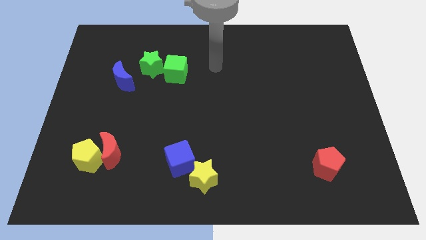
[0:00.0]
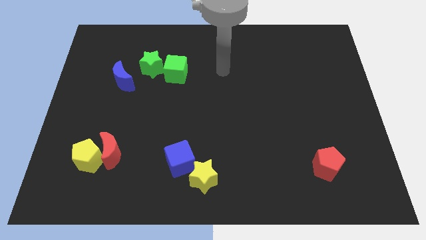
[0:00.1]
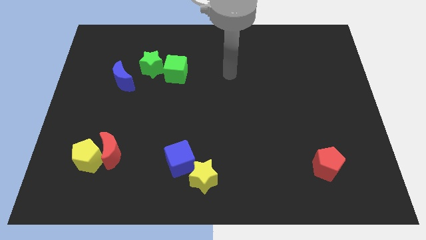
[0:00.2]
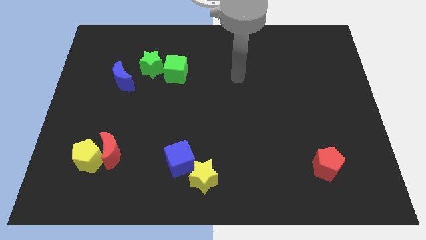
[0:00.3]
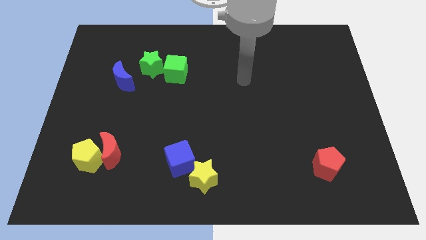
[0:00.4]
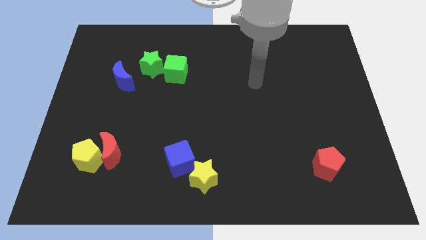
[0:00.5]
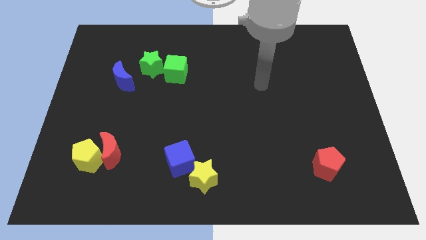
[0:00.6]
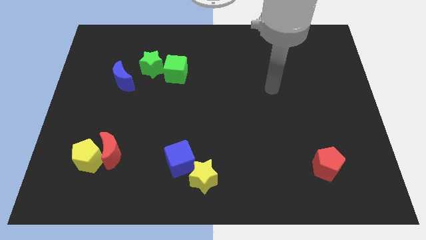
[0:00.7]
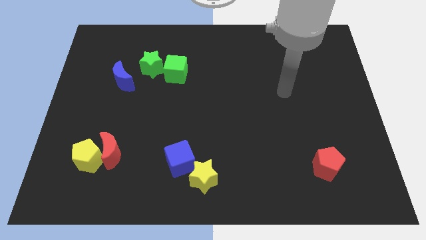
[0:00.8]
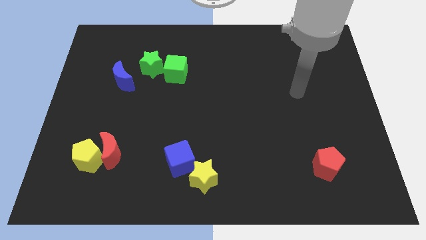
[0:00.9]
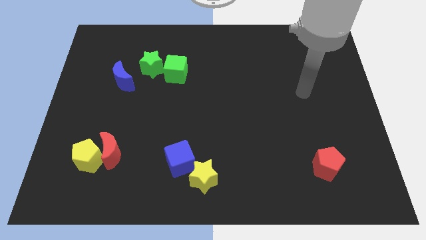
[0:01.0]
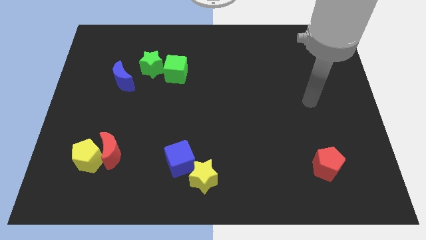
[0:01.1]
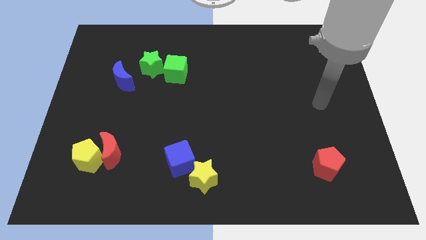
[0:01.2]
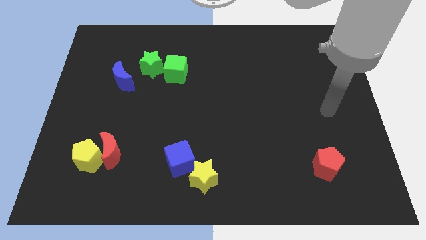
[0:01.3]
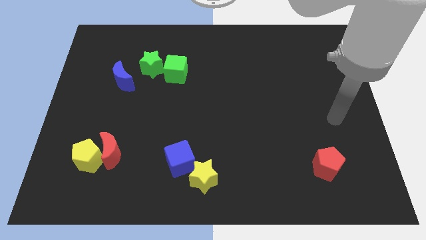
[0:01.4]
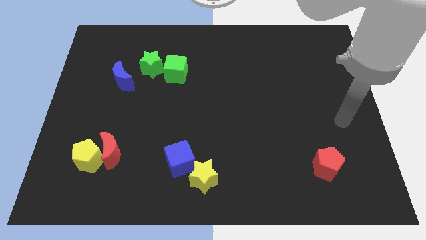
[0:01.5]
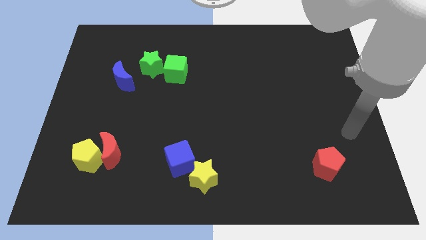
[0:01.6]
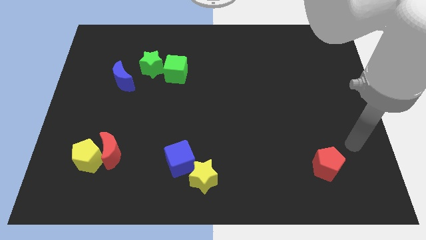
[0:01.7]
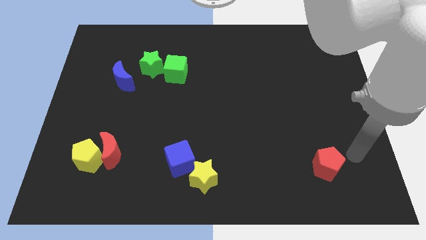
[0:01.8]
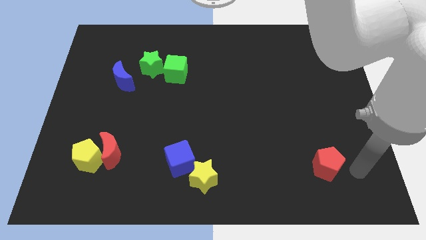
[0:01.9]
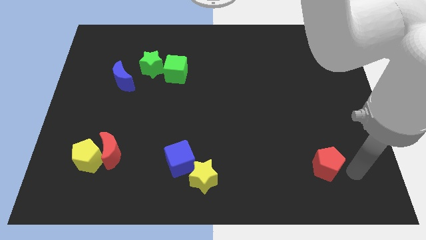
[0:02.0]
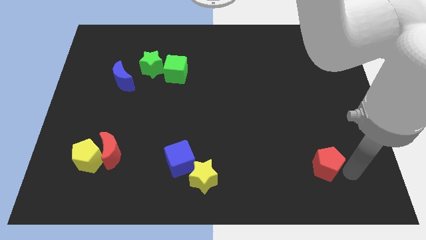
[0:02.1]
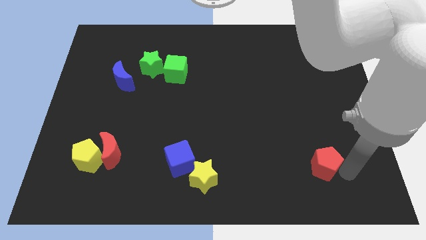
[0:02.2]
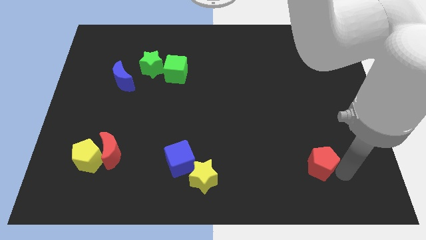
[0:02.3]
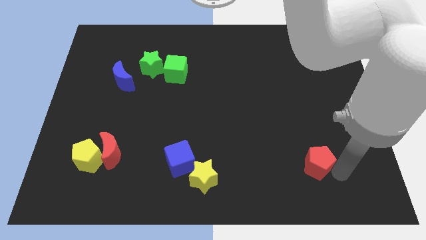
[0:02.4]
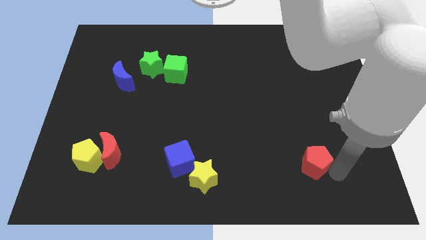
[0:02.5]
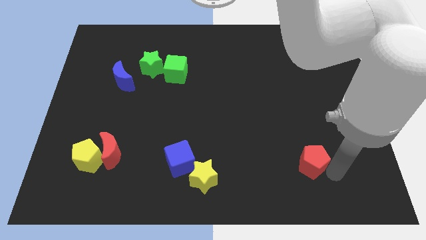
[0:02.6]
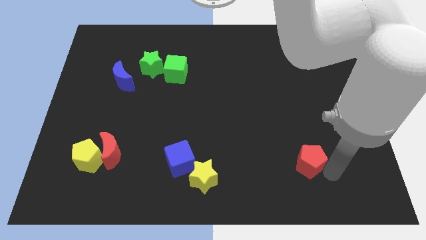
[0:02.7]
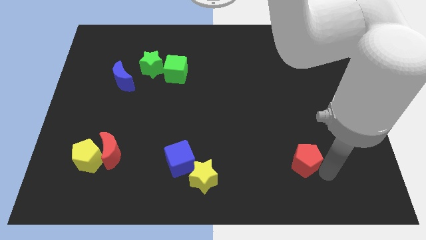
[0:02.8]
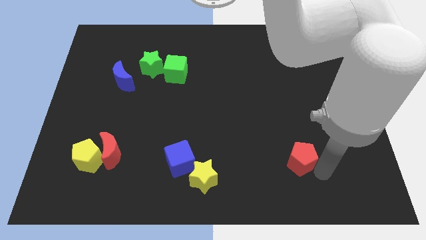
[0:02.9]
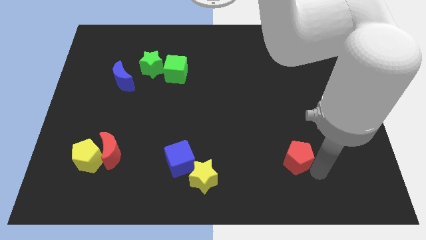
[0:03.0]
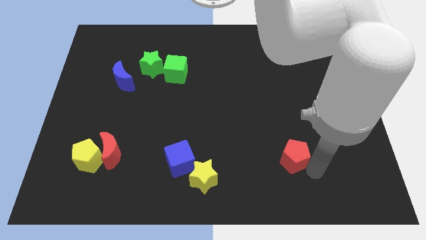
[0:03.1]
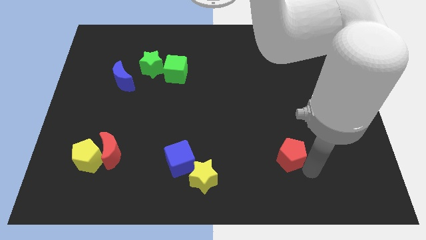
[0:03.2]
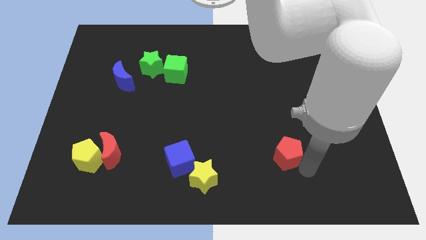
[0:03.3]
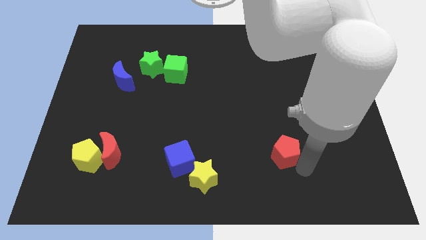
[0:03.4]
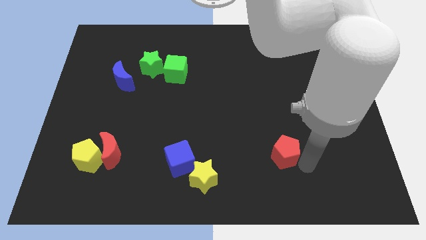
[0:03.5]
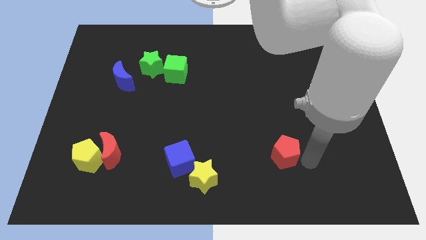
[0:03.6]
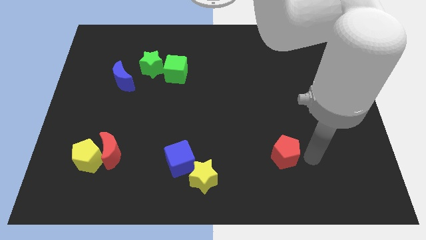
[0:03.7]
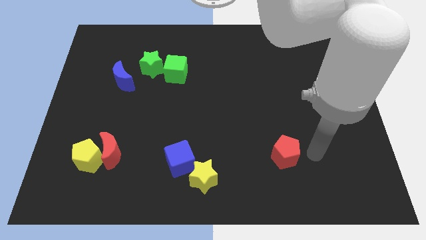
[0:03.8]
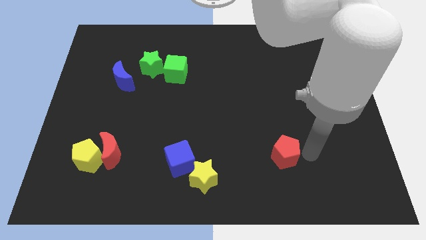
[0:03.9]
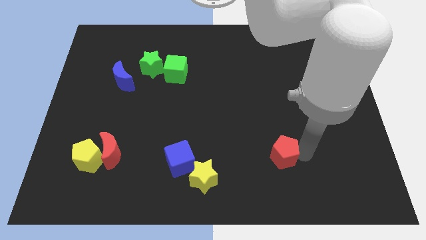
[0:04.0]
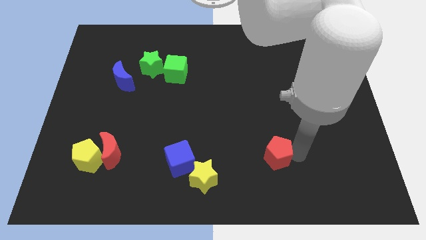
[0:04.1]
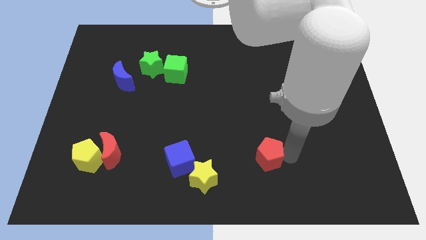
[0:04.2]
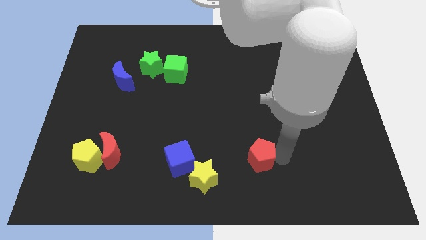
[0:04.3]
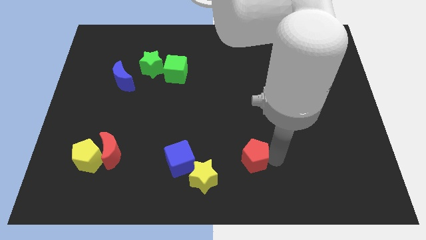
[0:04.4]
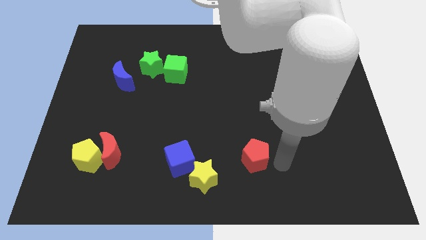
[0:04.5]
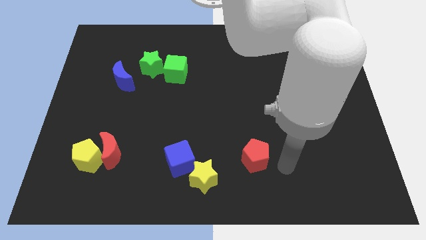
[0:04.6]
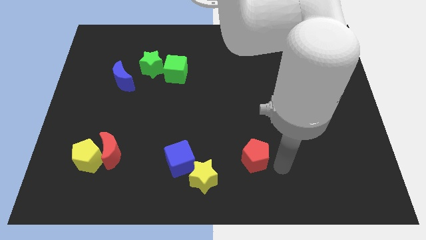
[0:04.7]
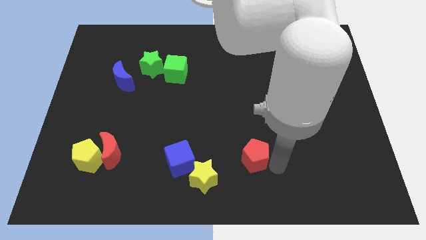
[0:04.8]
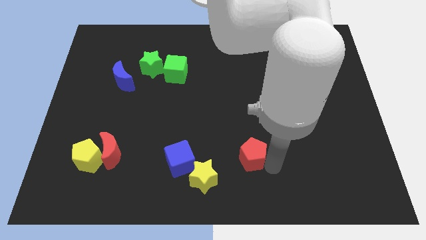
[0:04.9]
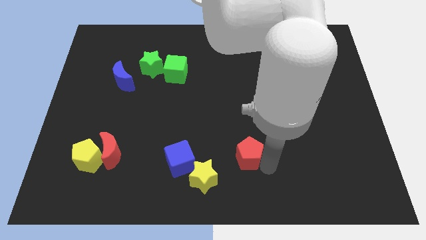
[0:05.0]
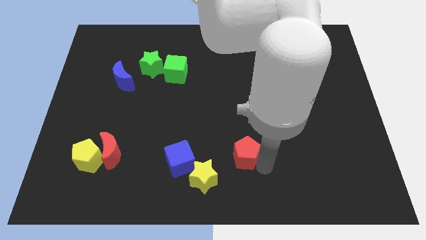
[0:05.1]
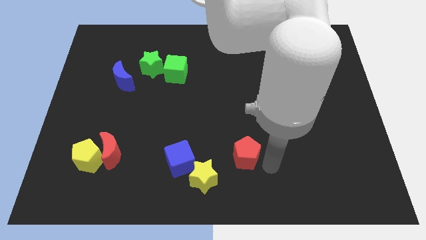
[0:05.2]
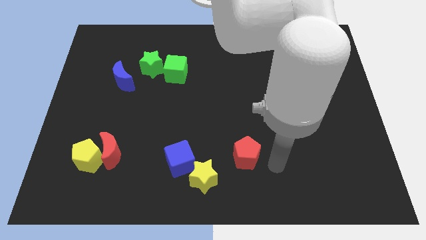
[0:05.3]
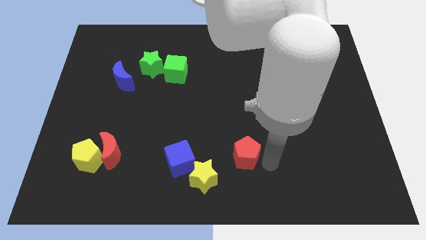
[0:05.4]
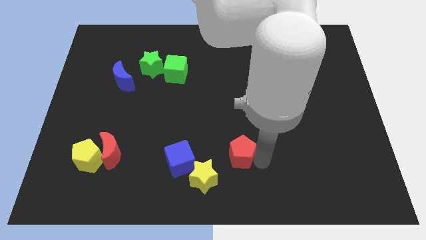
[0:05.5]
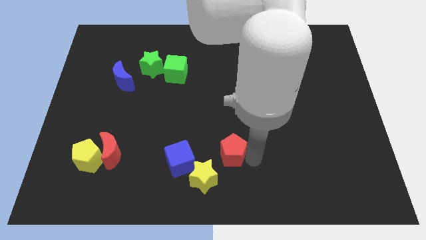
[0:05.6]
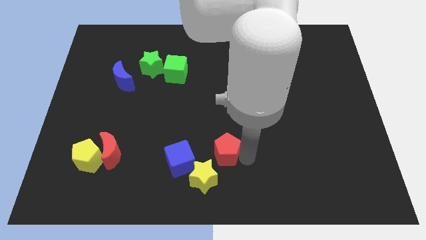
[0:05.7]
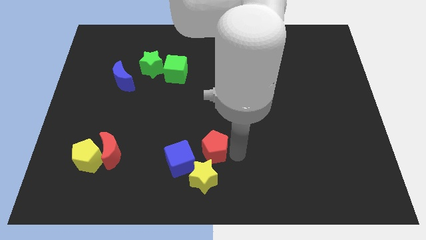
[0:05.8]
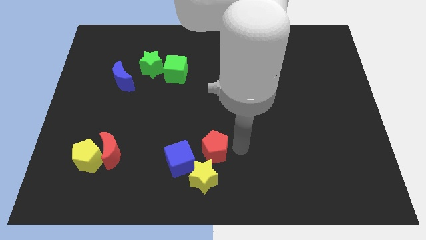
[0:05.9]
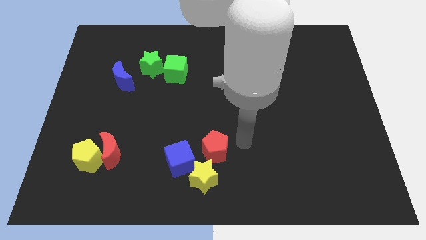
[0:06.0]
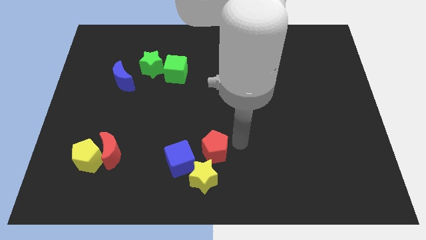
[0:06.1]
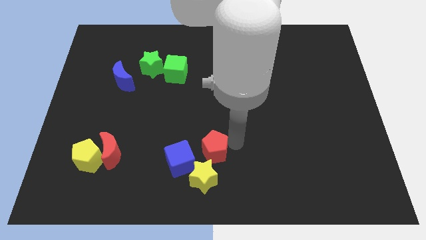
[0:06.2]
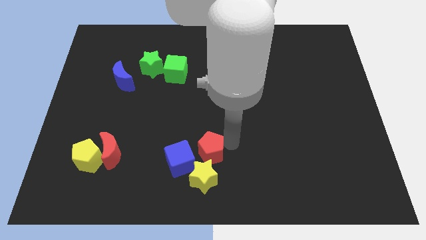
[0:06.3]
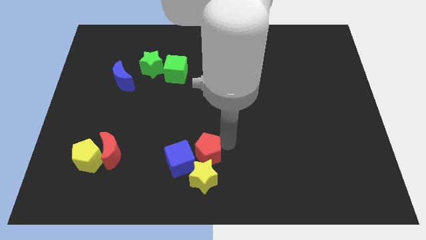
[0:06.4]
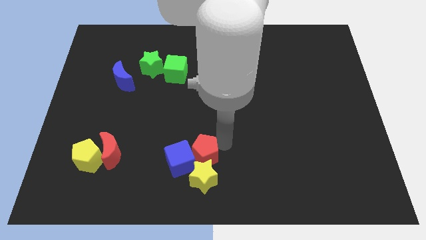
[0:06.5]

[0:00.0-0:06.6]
slide the red pentagon next to the blue cube
